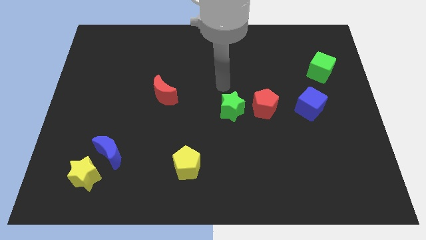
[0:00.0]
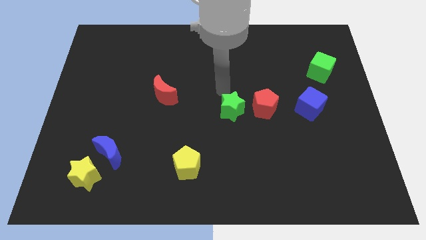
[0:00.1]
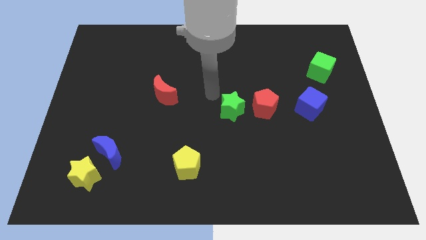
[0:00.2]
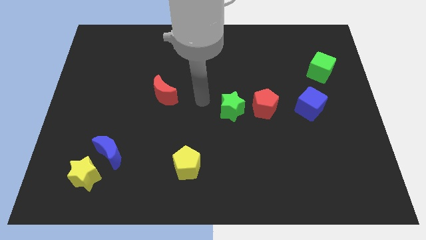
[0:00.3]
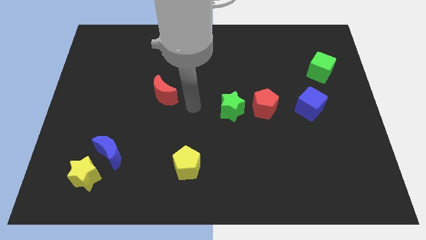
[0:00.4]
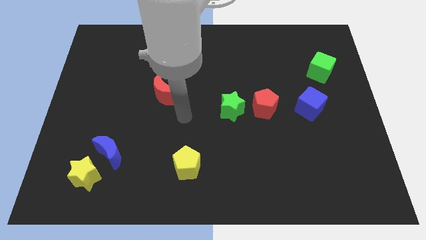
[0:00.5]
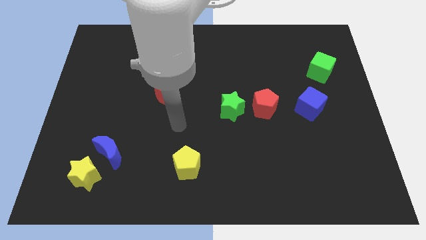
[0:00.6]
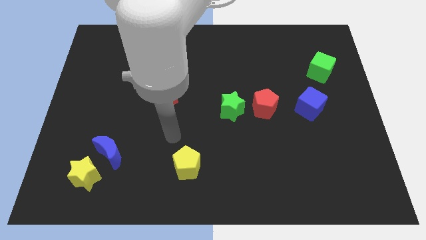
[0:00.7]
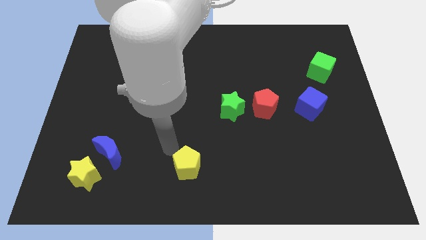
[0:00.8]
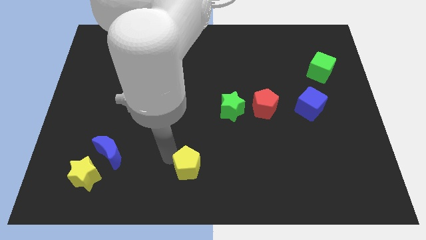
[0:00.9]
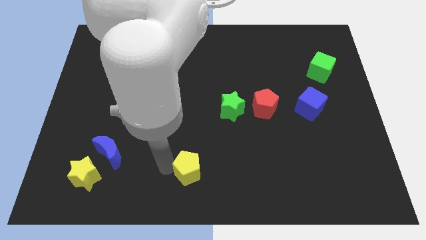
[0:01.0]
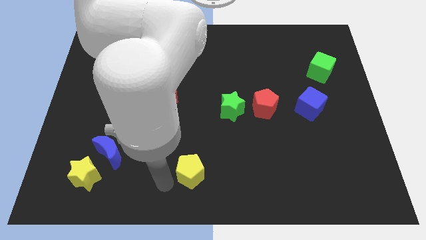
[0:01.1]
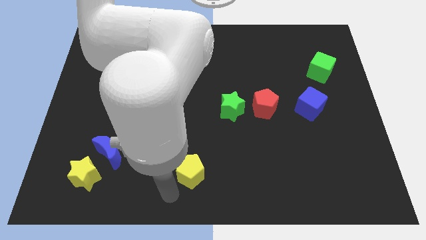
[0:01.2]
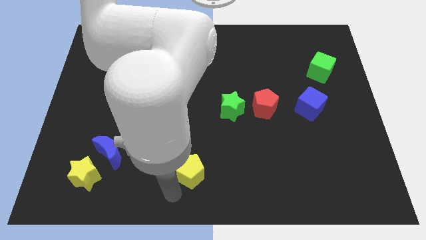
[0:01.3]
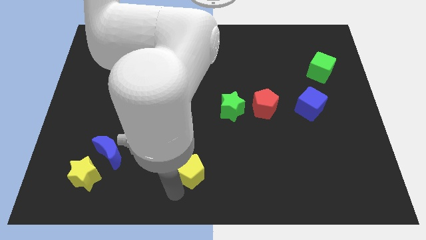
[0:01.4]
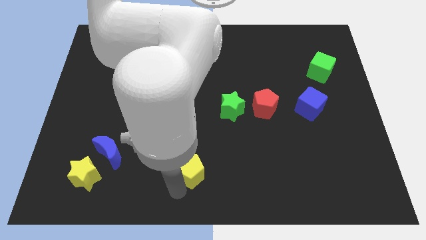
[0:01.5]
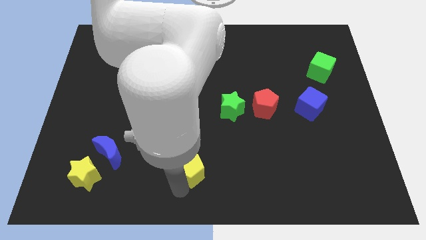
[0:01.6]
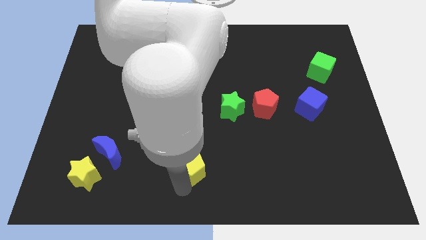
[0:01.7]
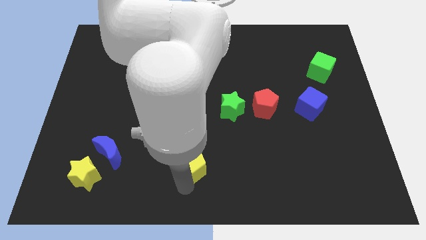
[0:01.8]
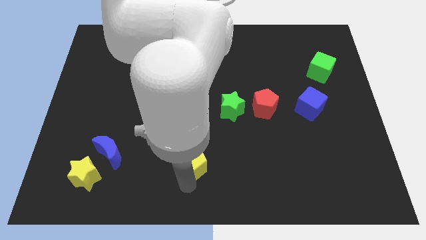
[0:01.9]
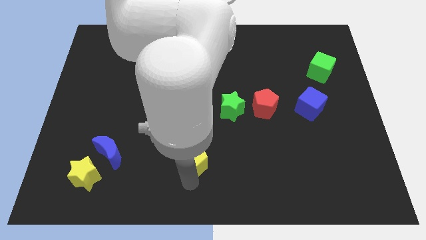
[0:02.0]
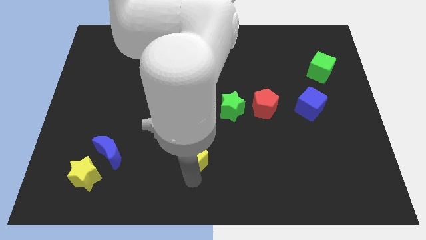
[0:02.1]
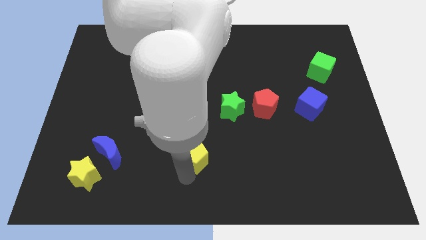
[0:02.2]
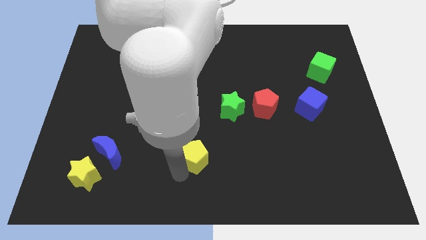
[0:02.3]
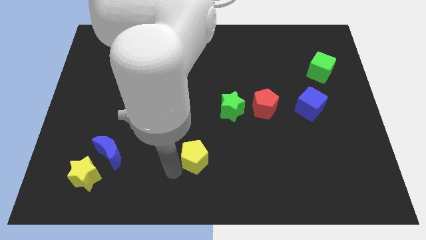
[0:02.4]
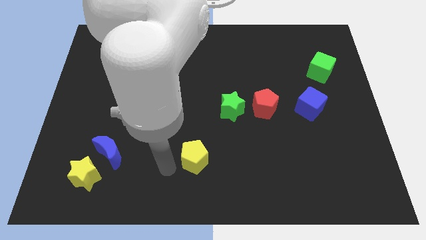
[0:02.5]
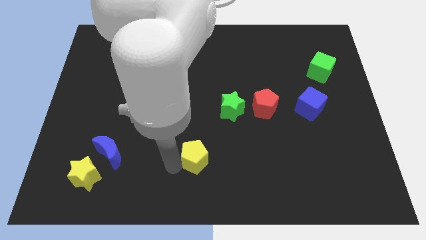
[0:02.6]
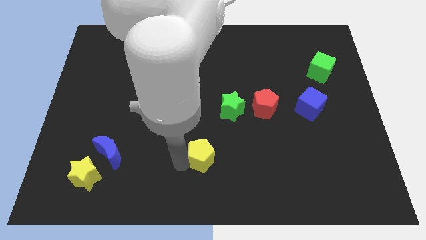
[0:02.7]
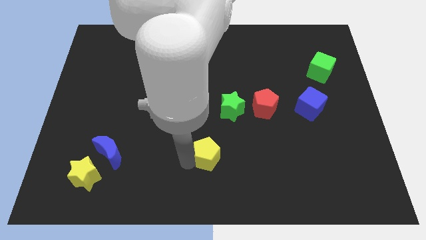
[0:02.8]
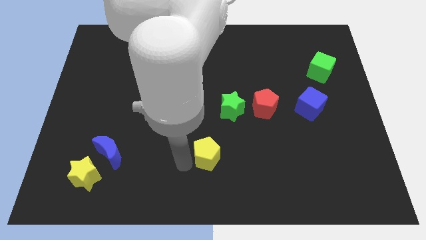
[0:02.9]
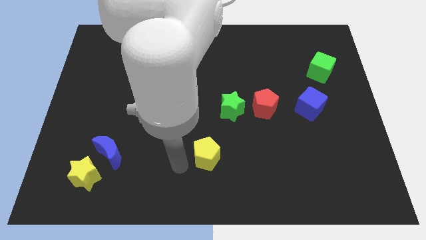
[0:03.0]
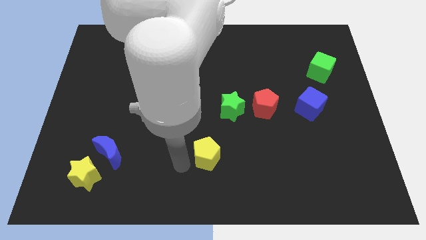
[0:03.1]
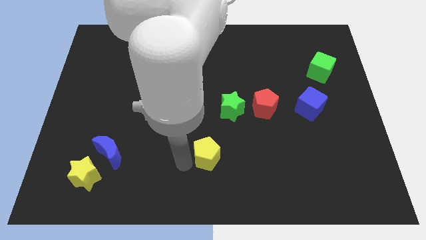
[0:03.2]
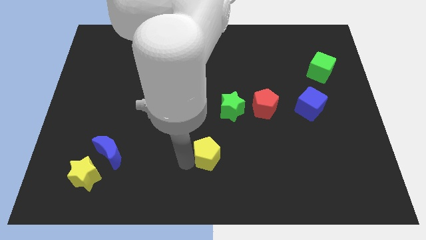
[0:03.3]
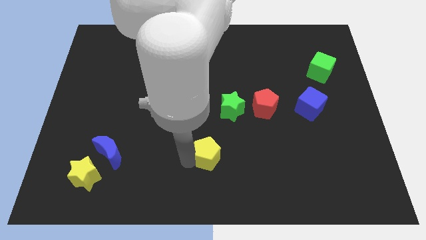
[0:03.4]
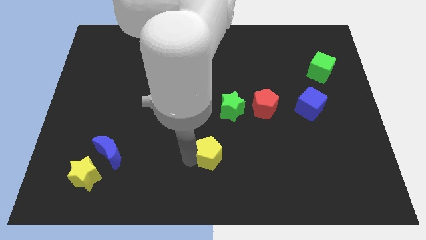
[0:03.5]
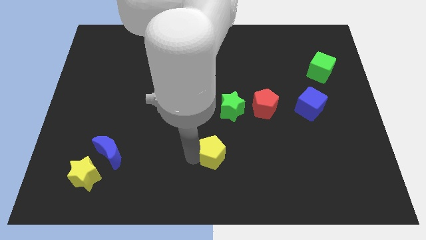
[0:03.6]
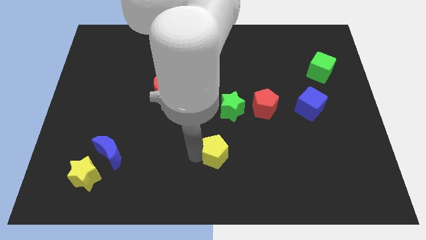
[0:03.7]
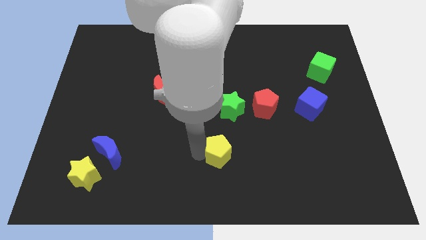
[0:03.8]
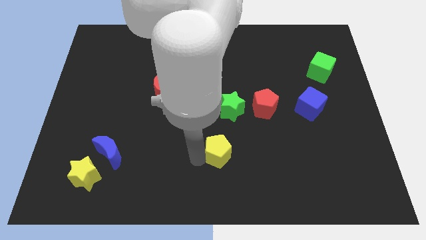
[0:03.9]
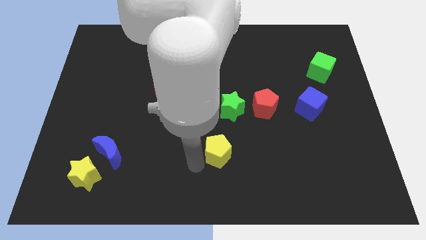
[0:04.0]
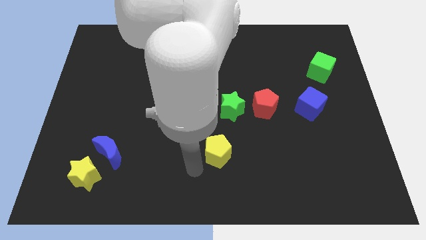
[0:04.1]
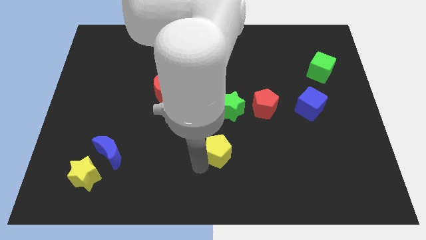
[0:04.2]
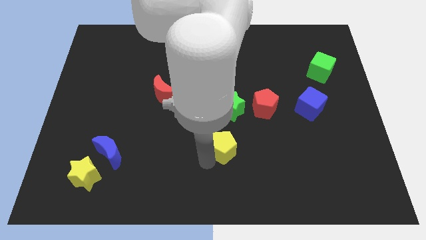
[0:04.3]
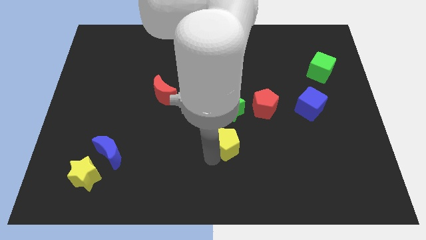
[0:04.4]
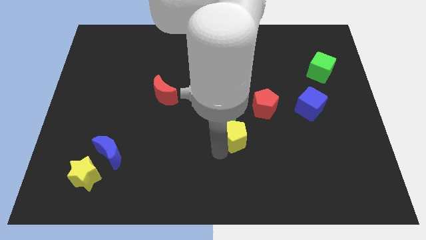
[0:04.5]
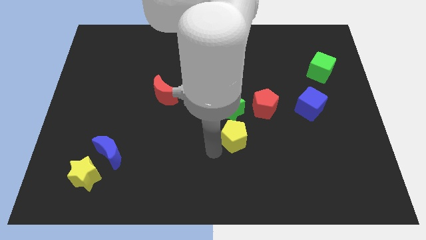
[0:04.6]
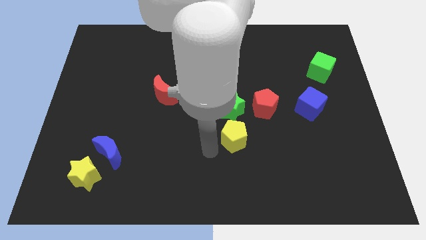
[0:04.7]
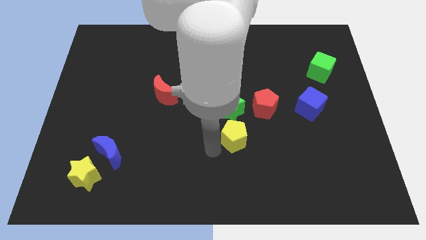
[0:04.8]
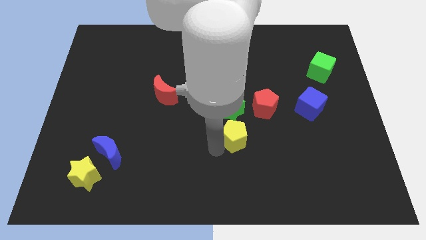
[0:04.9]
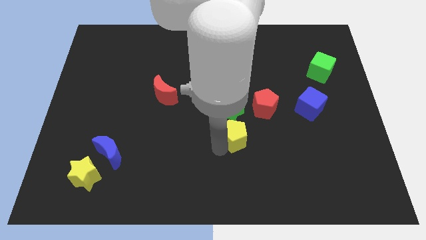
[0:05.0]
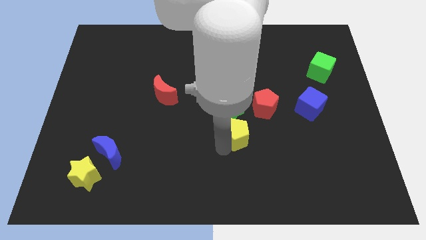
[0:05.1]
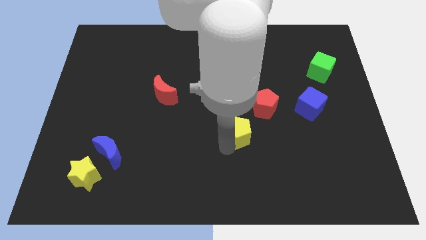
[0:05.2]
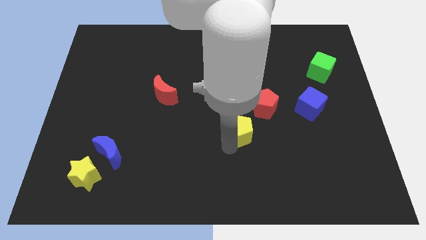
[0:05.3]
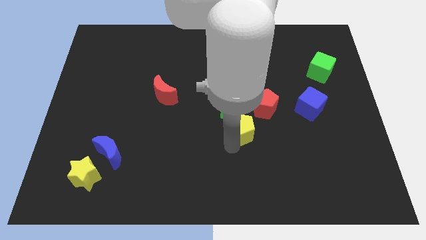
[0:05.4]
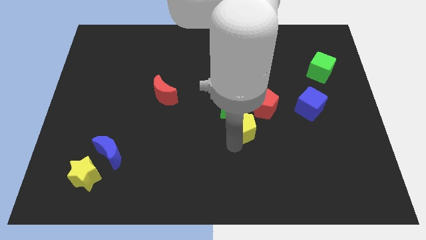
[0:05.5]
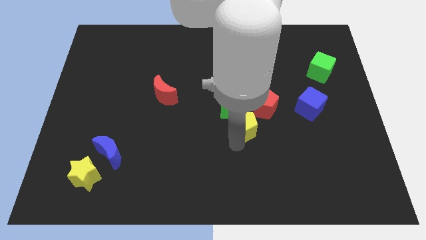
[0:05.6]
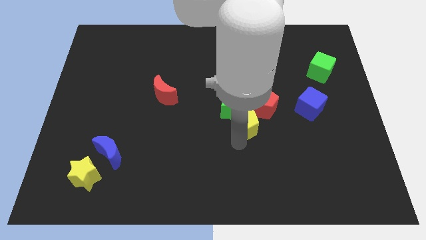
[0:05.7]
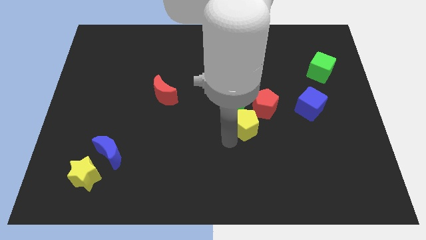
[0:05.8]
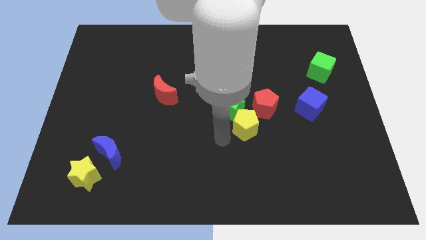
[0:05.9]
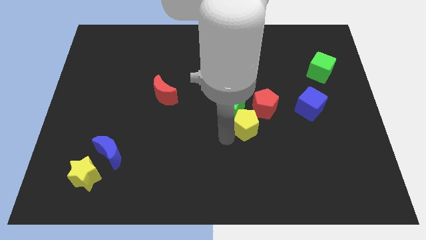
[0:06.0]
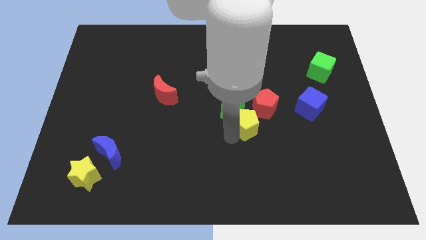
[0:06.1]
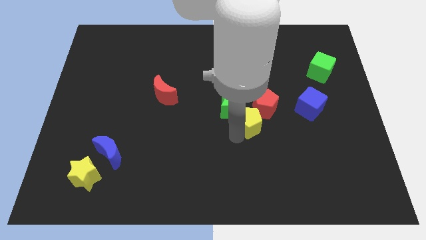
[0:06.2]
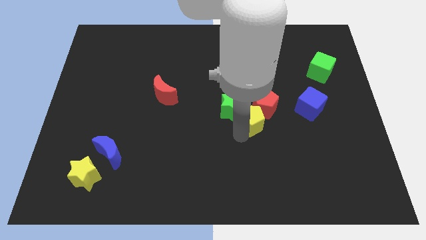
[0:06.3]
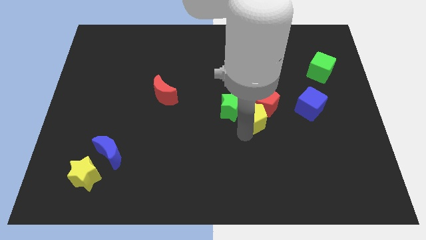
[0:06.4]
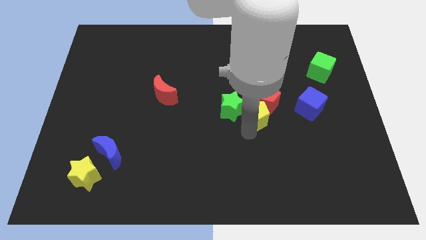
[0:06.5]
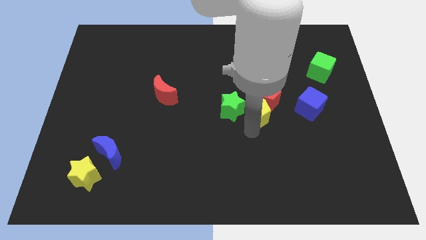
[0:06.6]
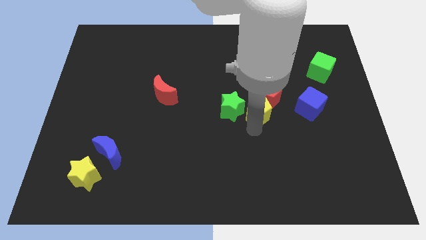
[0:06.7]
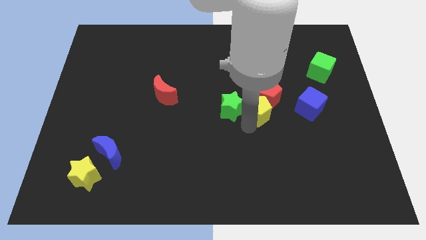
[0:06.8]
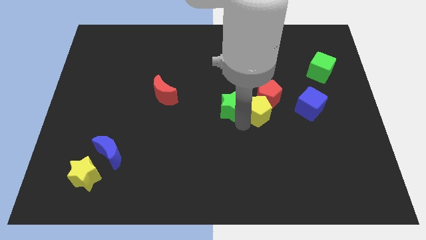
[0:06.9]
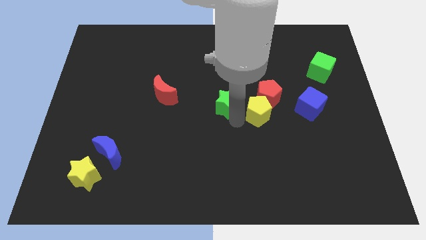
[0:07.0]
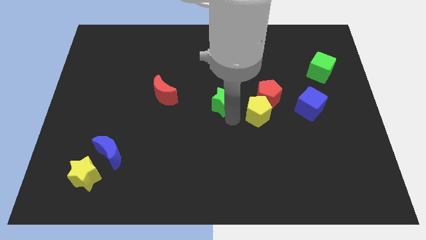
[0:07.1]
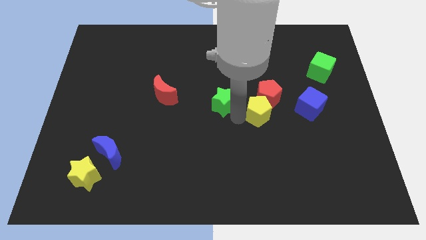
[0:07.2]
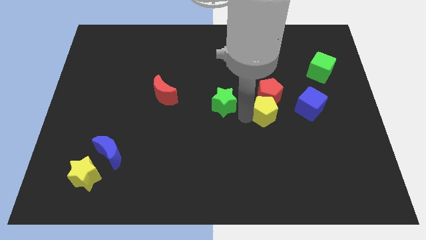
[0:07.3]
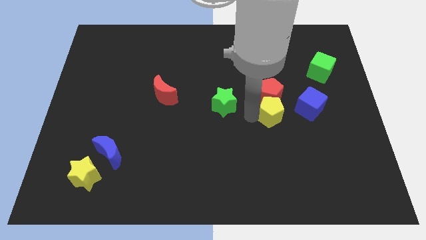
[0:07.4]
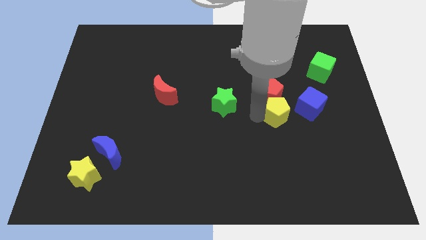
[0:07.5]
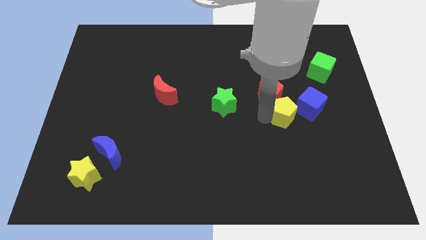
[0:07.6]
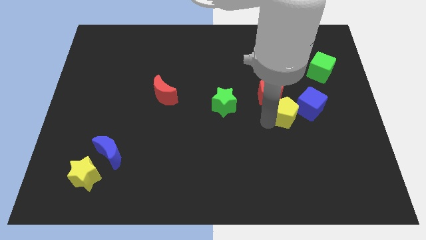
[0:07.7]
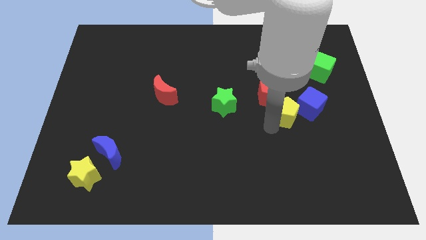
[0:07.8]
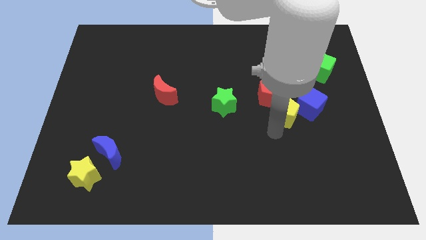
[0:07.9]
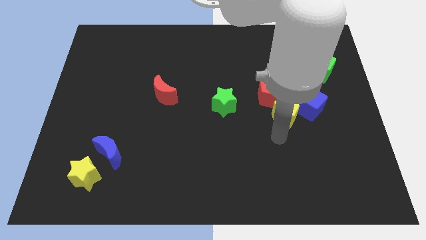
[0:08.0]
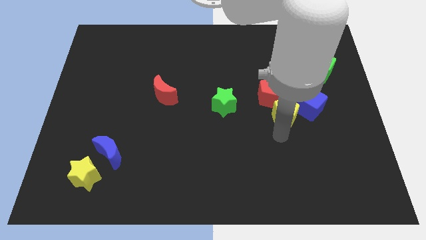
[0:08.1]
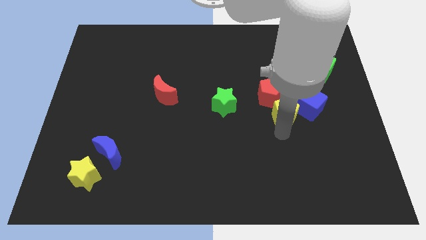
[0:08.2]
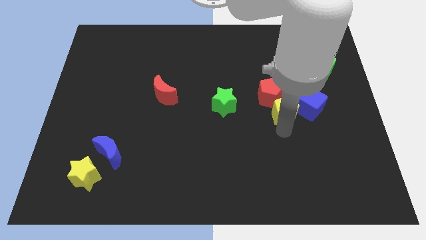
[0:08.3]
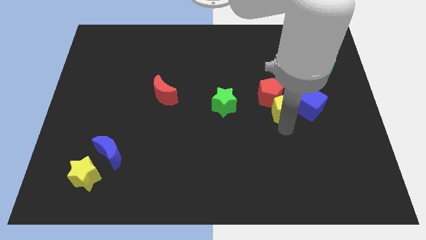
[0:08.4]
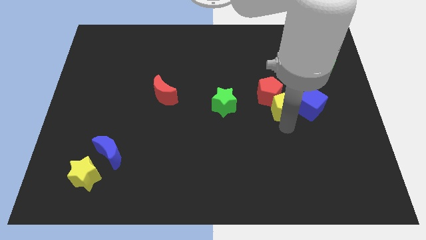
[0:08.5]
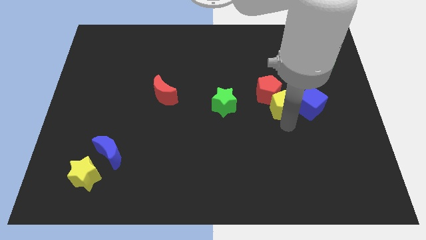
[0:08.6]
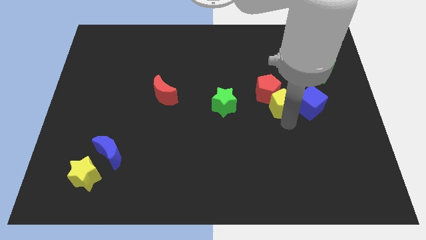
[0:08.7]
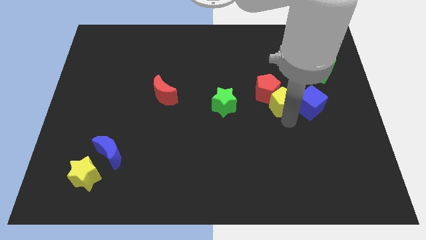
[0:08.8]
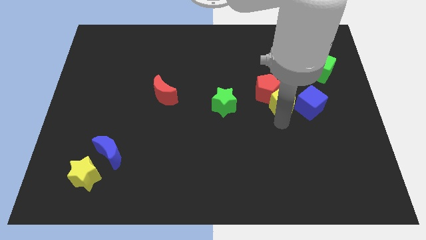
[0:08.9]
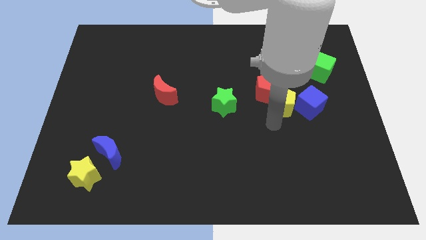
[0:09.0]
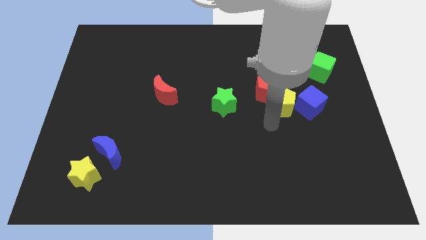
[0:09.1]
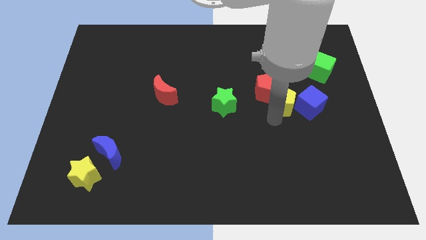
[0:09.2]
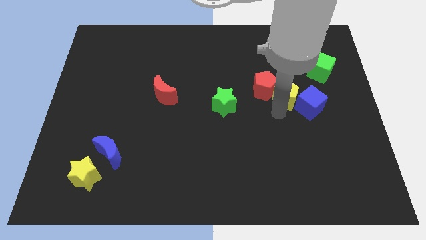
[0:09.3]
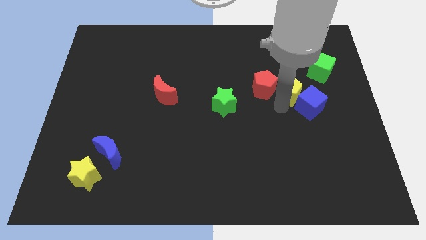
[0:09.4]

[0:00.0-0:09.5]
push the yellow pentagon above the blue cube
